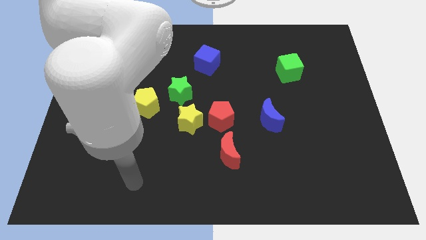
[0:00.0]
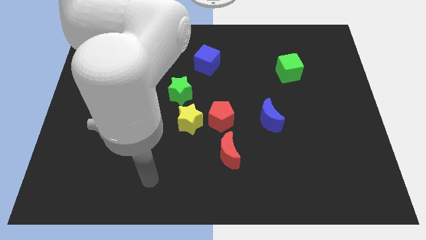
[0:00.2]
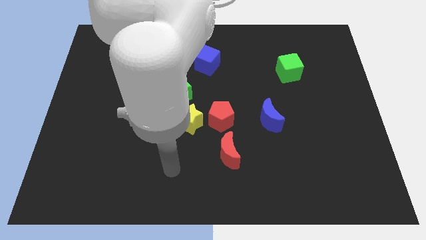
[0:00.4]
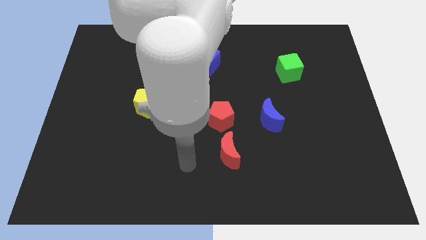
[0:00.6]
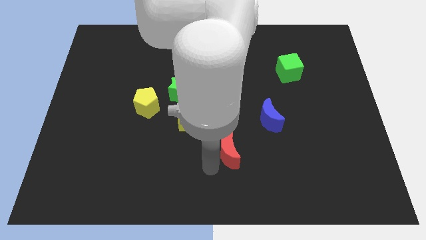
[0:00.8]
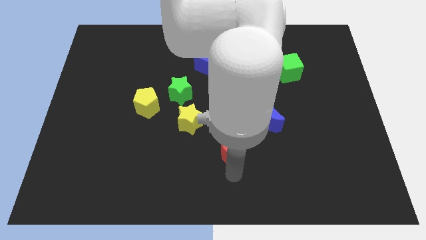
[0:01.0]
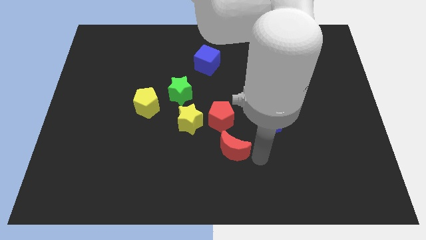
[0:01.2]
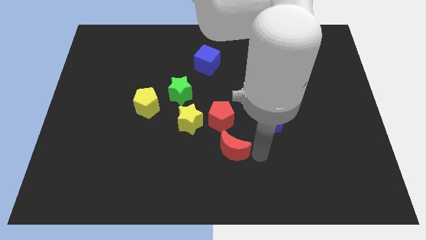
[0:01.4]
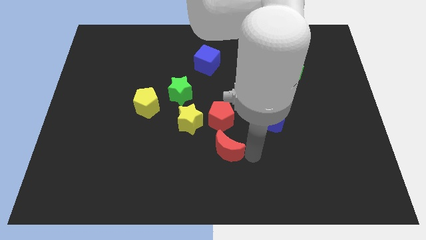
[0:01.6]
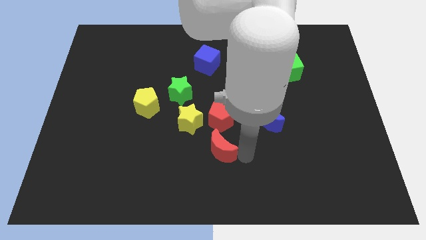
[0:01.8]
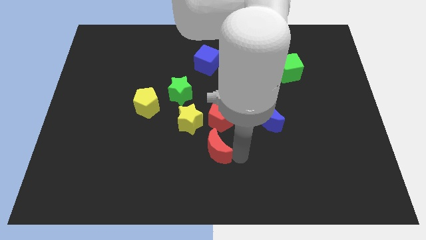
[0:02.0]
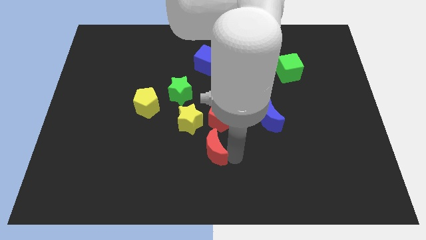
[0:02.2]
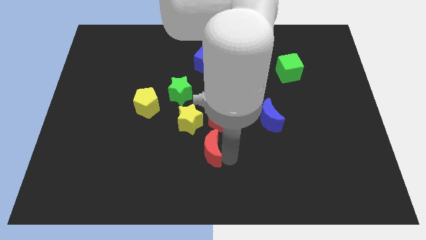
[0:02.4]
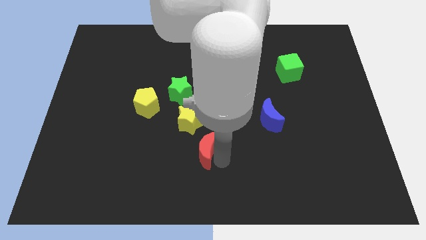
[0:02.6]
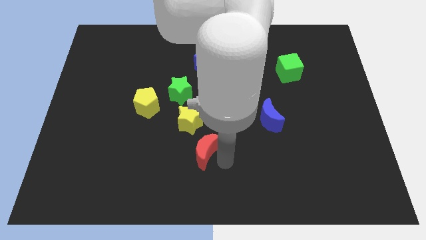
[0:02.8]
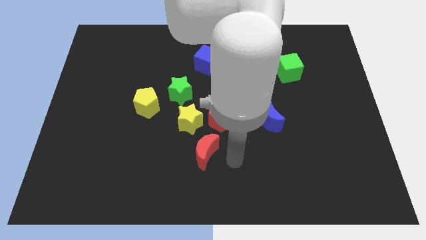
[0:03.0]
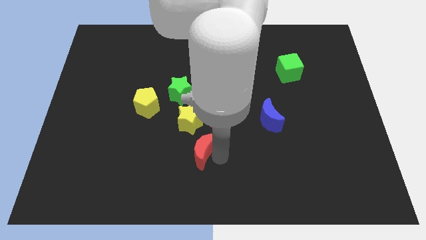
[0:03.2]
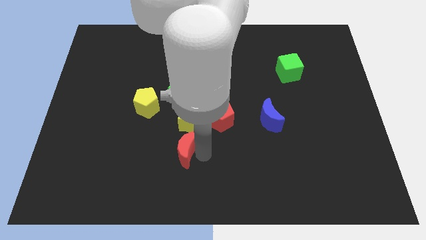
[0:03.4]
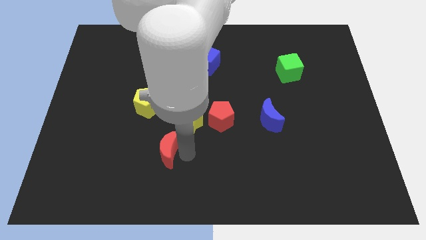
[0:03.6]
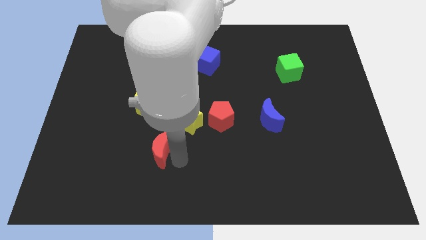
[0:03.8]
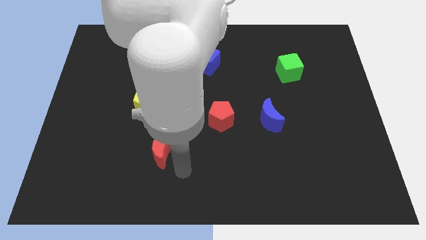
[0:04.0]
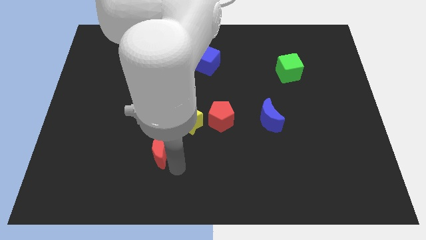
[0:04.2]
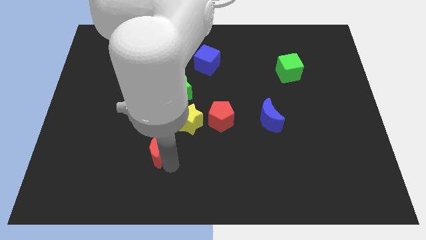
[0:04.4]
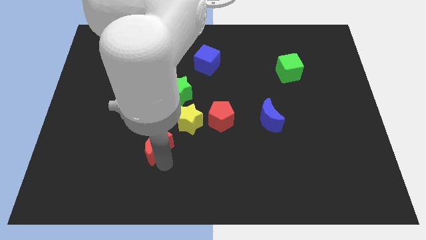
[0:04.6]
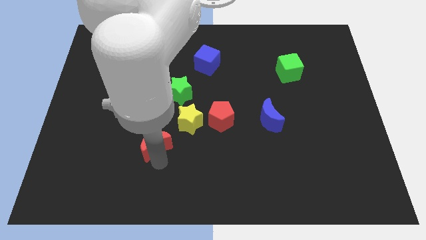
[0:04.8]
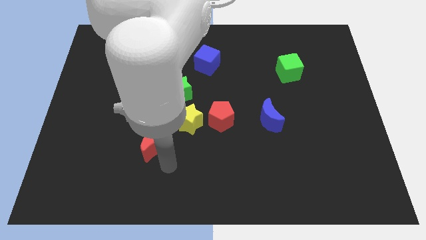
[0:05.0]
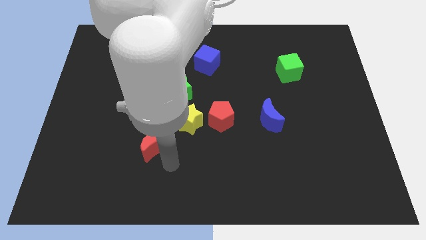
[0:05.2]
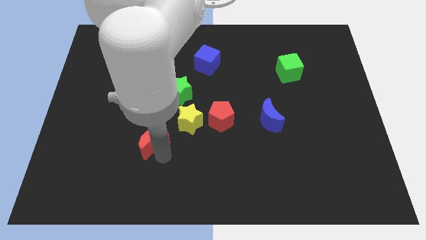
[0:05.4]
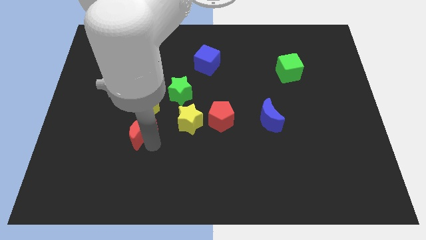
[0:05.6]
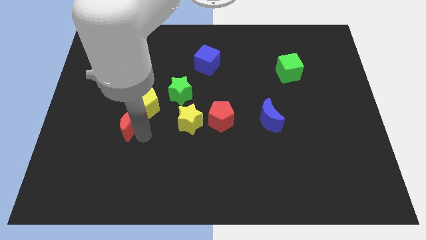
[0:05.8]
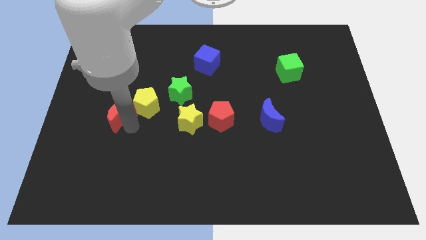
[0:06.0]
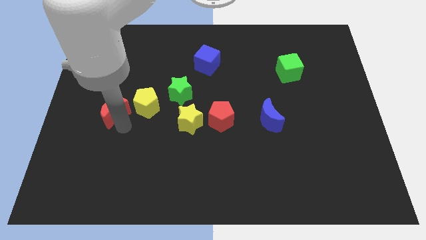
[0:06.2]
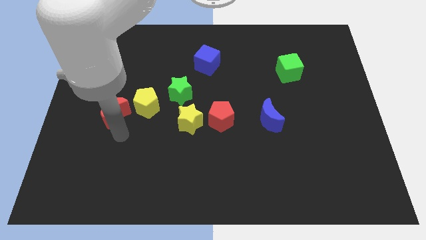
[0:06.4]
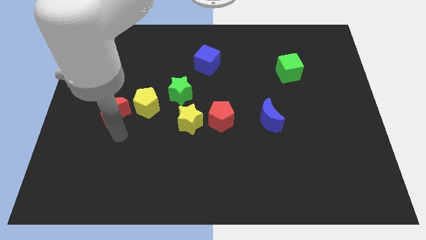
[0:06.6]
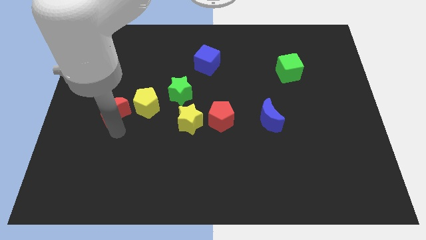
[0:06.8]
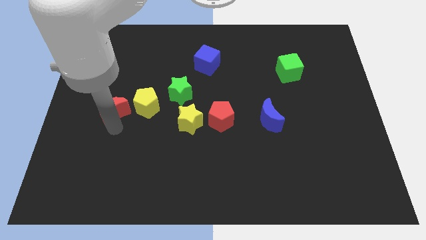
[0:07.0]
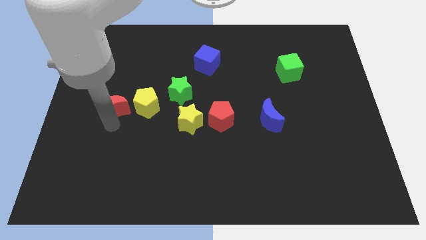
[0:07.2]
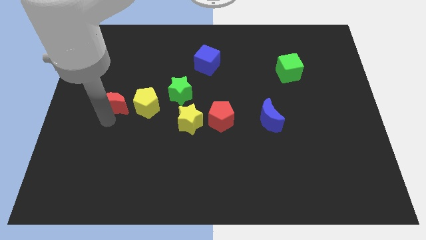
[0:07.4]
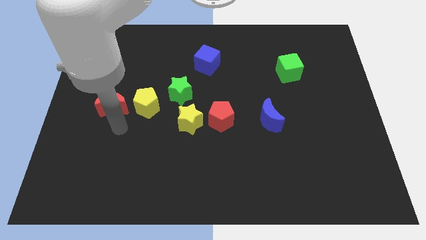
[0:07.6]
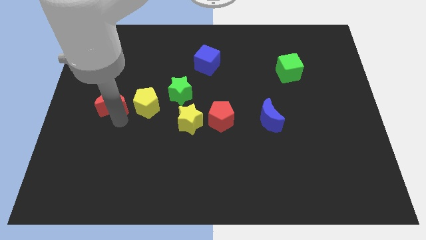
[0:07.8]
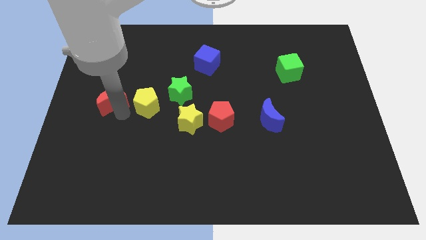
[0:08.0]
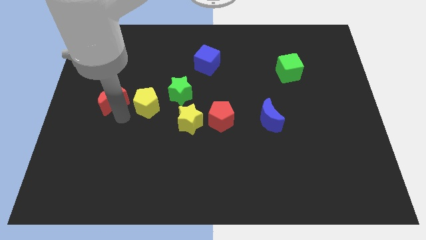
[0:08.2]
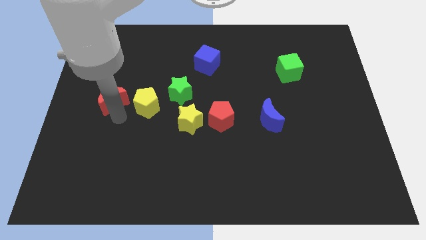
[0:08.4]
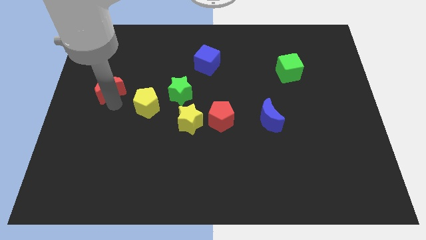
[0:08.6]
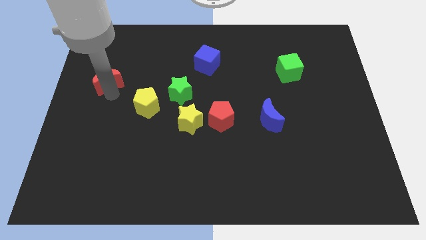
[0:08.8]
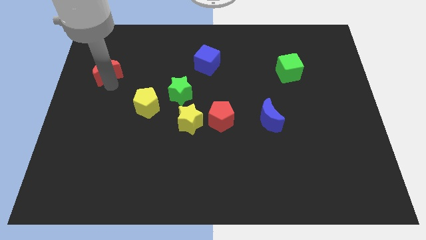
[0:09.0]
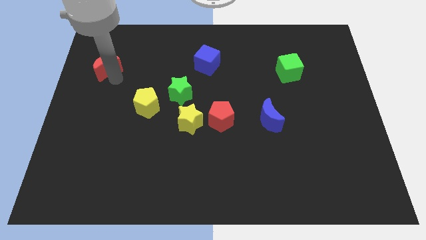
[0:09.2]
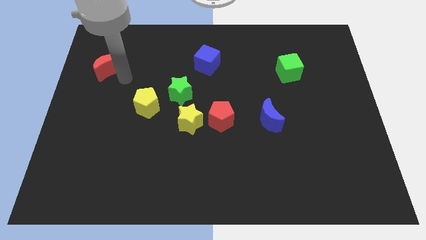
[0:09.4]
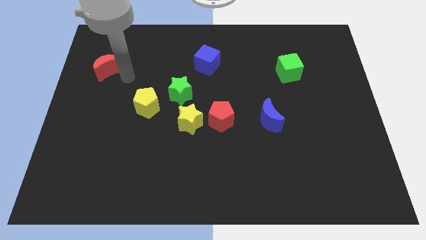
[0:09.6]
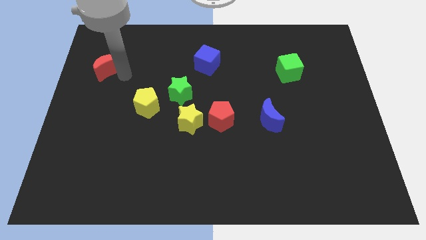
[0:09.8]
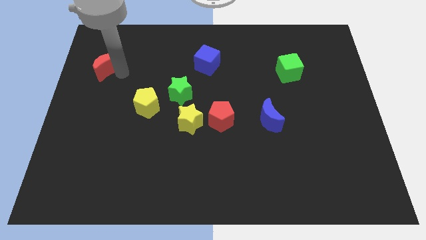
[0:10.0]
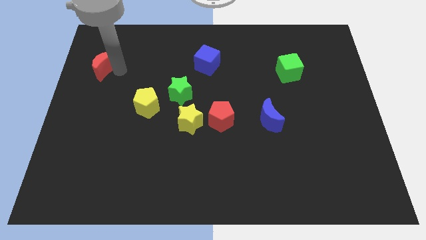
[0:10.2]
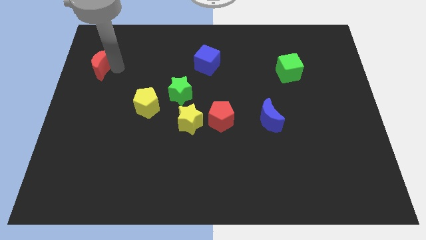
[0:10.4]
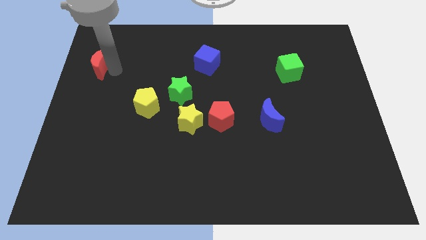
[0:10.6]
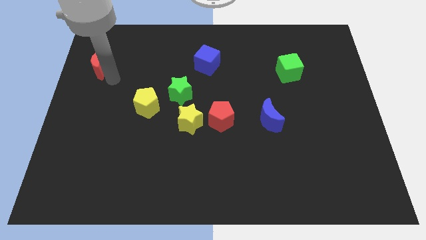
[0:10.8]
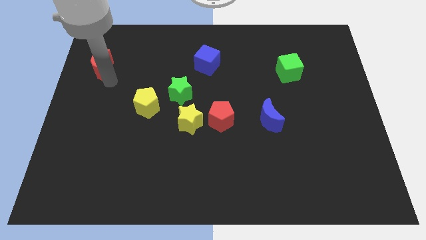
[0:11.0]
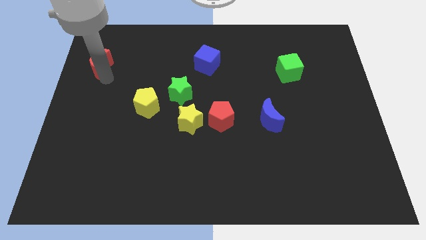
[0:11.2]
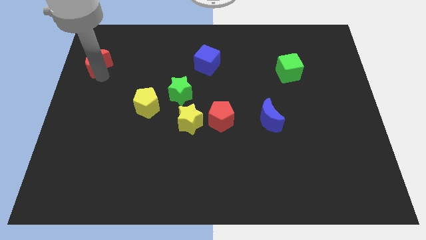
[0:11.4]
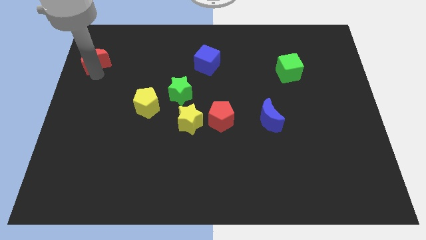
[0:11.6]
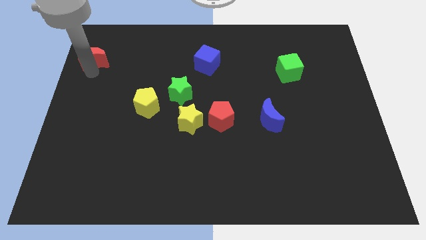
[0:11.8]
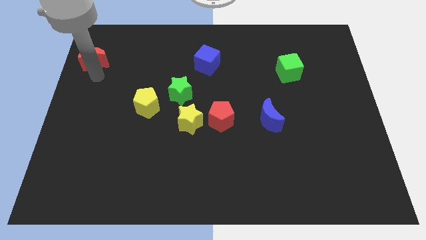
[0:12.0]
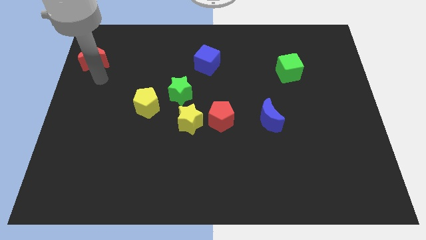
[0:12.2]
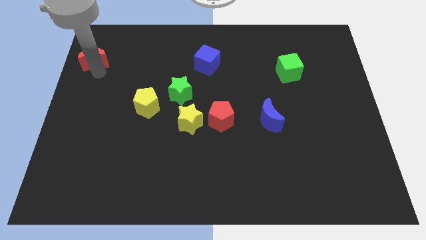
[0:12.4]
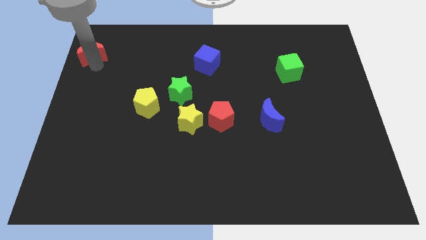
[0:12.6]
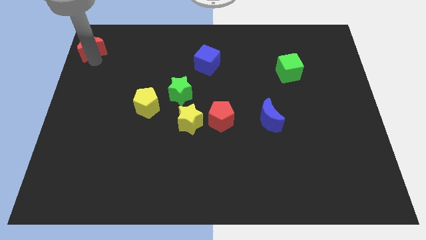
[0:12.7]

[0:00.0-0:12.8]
slide the red moon to the top left of the board

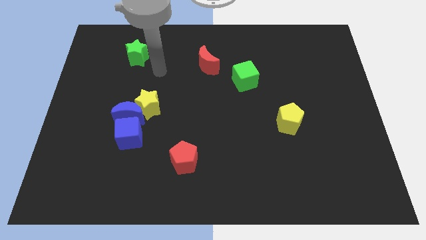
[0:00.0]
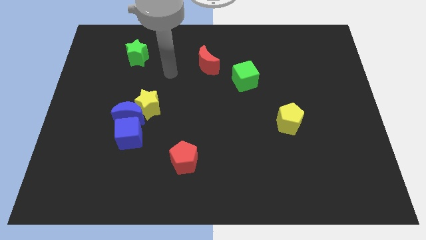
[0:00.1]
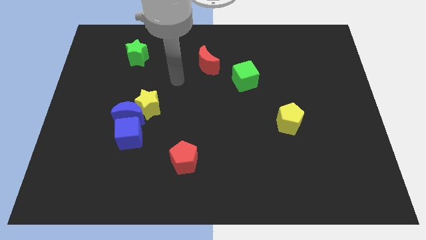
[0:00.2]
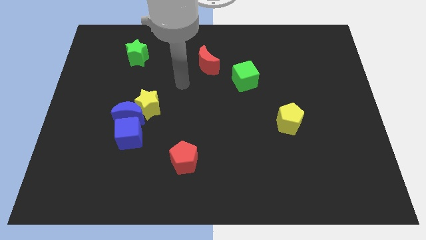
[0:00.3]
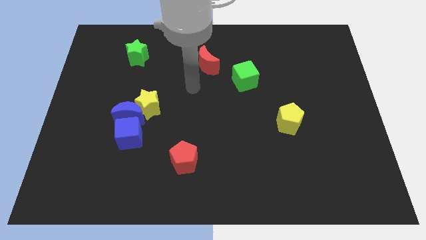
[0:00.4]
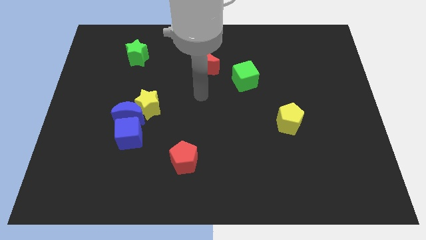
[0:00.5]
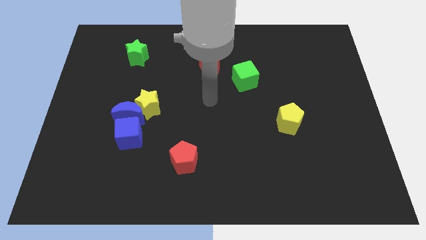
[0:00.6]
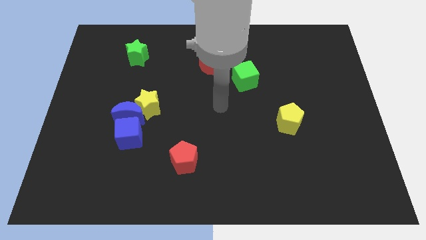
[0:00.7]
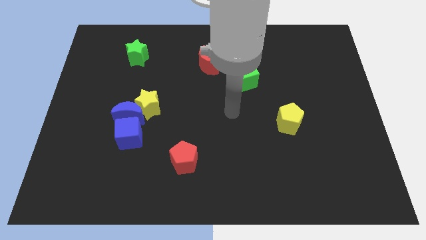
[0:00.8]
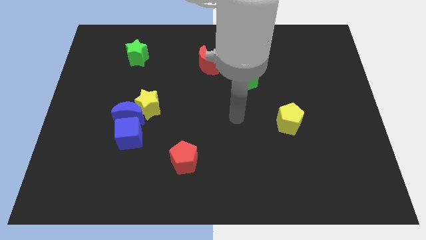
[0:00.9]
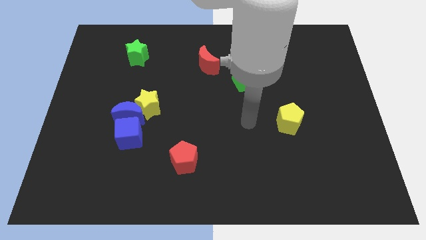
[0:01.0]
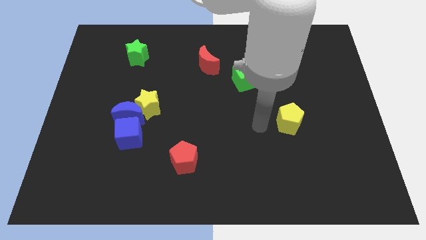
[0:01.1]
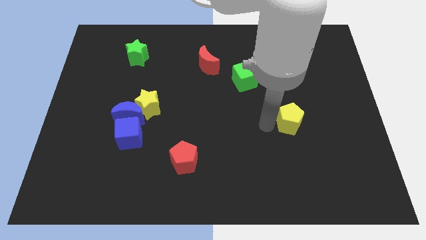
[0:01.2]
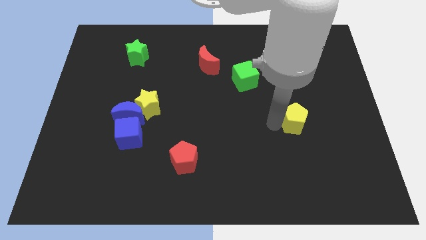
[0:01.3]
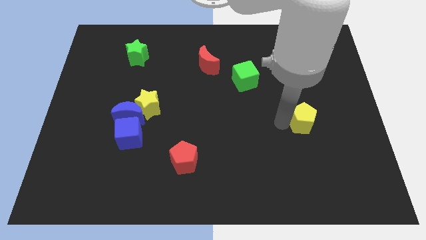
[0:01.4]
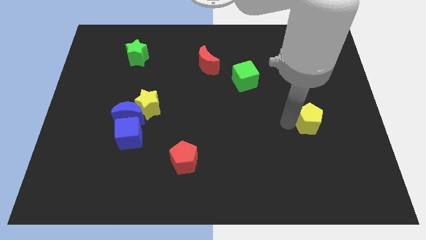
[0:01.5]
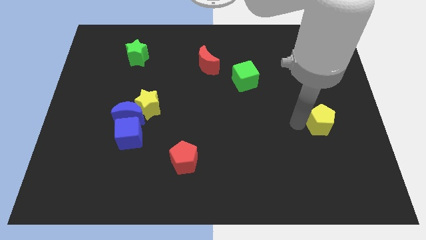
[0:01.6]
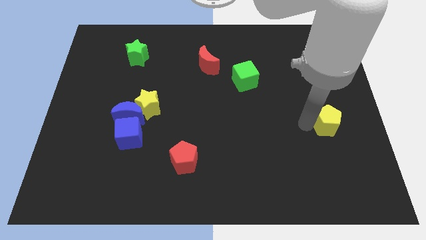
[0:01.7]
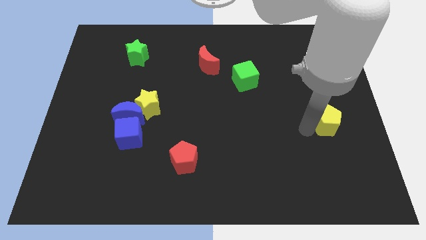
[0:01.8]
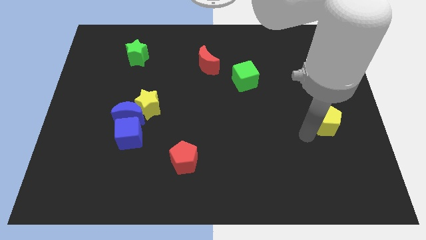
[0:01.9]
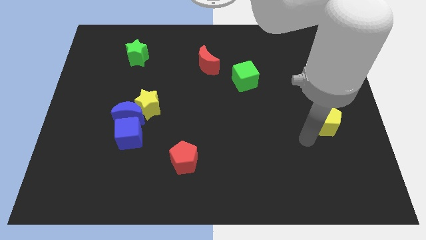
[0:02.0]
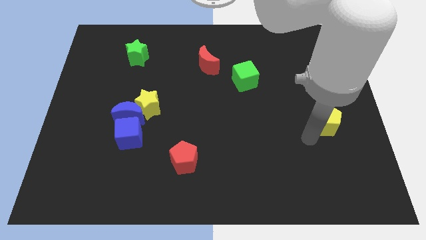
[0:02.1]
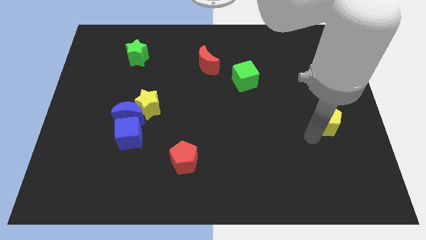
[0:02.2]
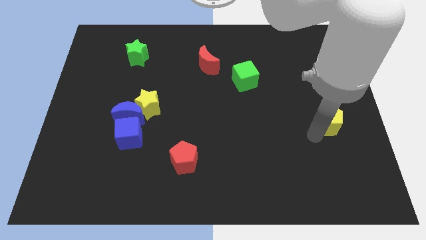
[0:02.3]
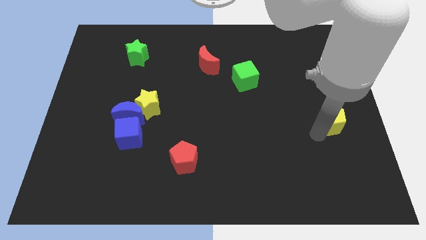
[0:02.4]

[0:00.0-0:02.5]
move the yellow pentagon to the right side
